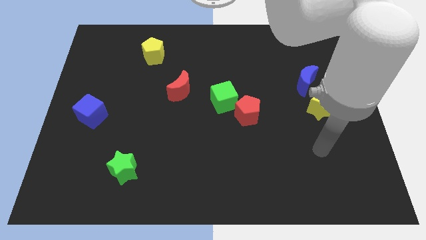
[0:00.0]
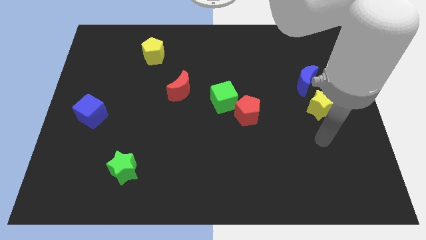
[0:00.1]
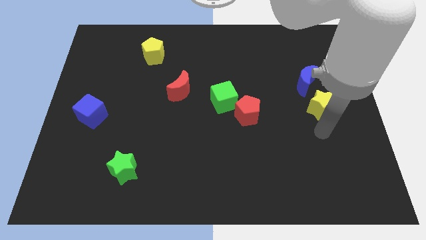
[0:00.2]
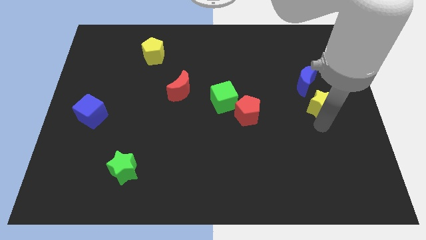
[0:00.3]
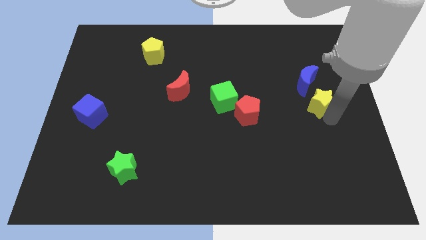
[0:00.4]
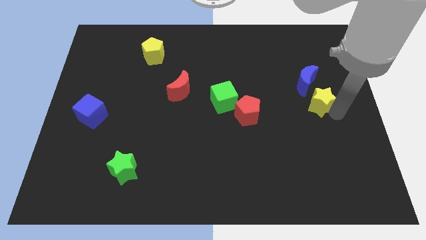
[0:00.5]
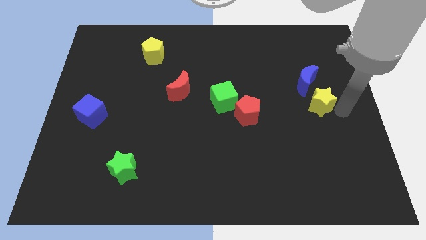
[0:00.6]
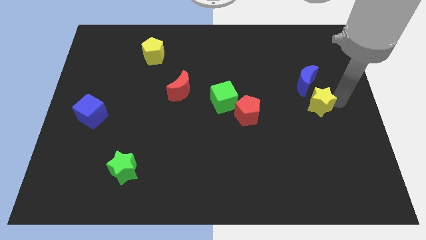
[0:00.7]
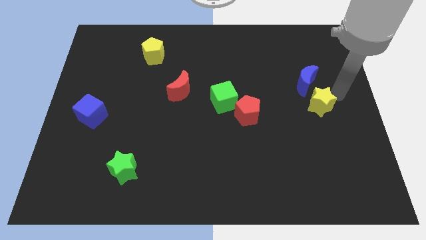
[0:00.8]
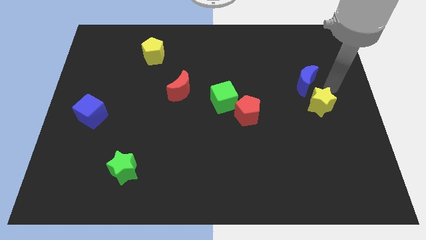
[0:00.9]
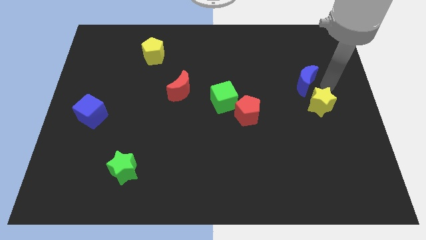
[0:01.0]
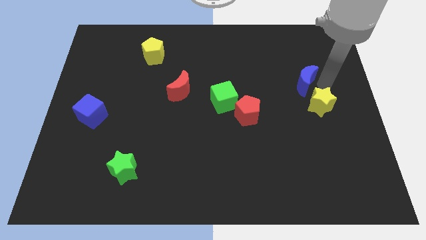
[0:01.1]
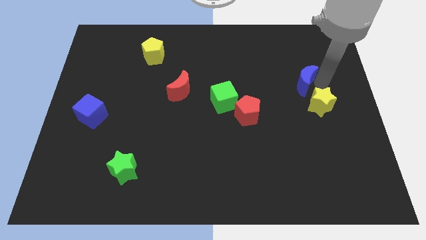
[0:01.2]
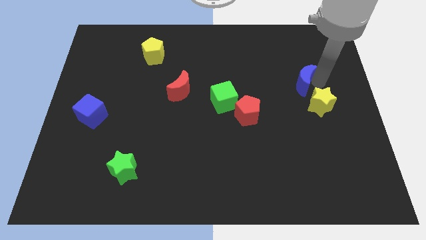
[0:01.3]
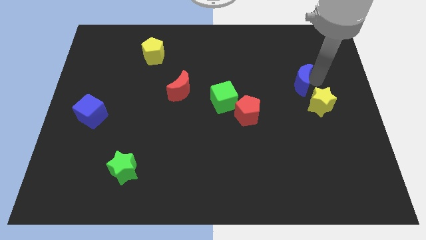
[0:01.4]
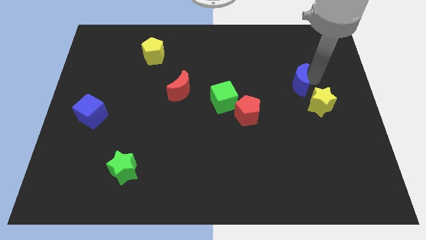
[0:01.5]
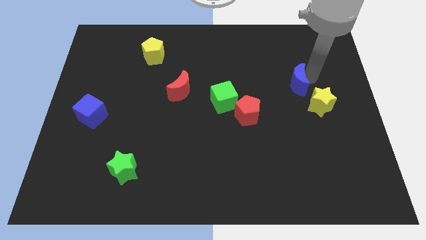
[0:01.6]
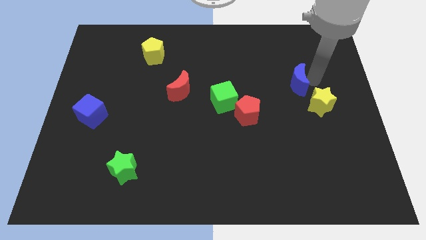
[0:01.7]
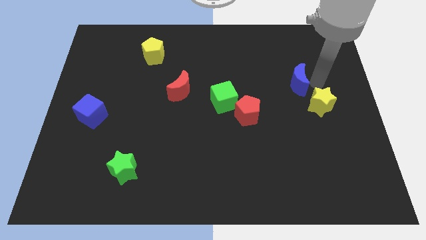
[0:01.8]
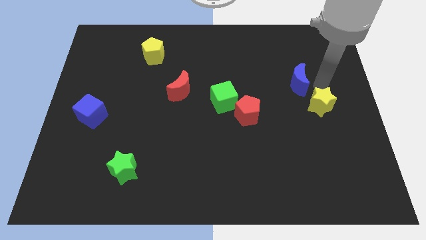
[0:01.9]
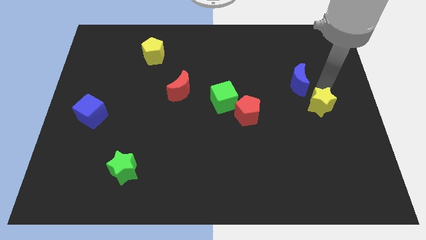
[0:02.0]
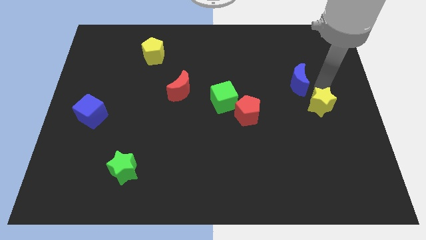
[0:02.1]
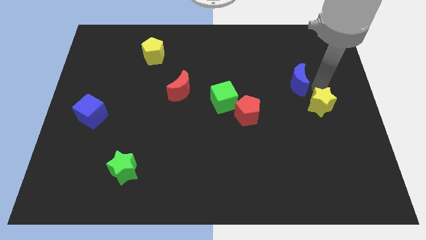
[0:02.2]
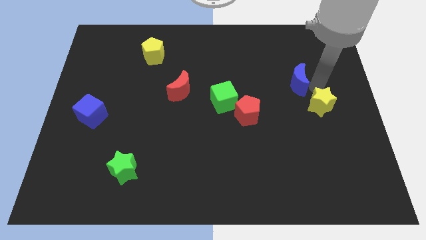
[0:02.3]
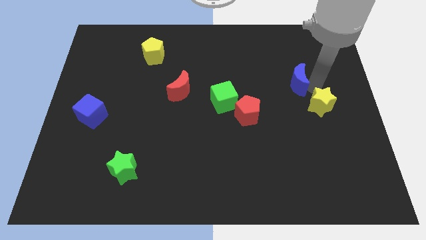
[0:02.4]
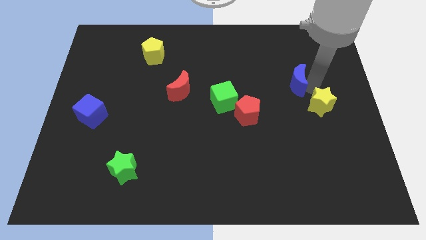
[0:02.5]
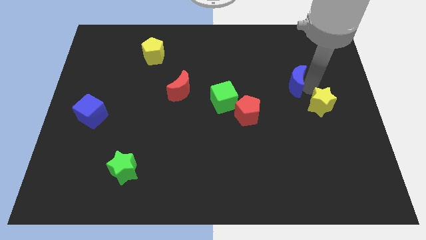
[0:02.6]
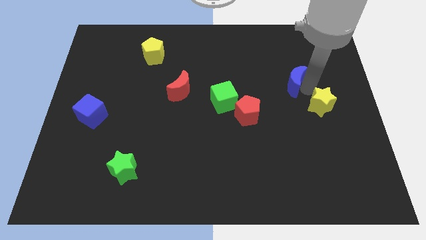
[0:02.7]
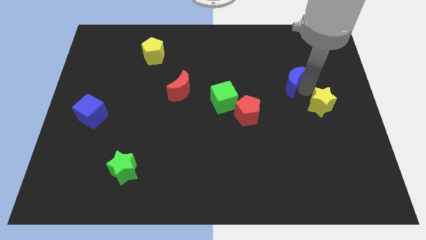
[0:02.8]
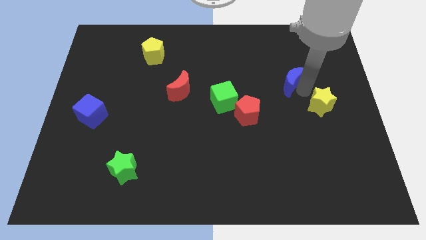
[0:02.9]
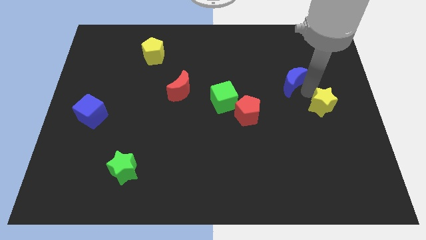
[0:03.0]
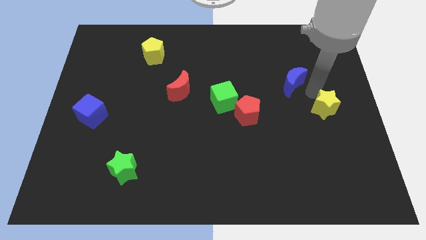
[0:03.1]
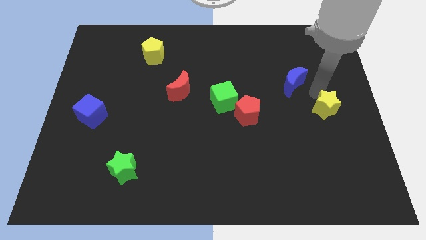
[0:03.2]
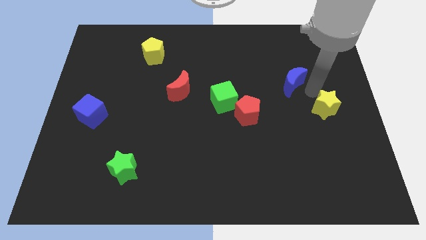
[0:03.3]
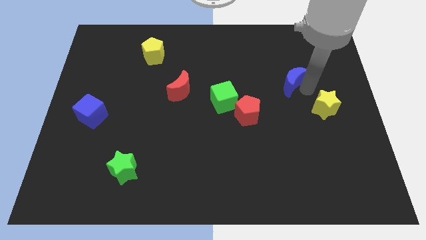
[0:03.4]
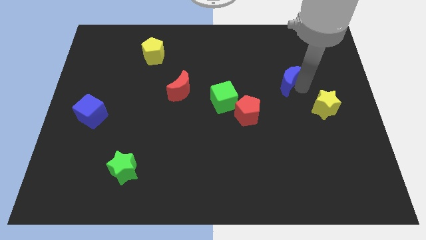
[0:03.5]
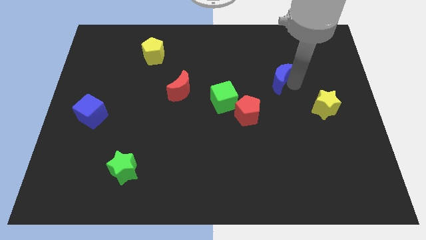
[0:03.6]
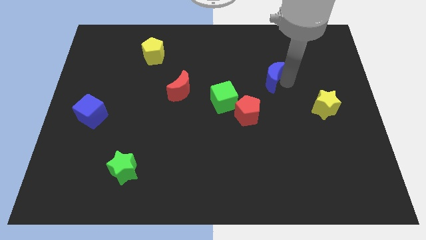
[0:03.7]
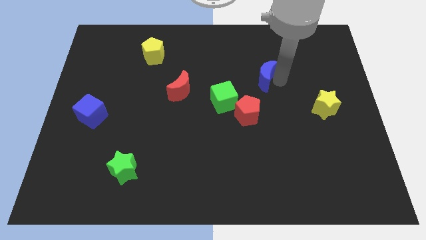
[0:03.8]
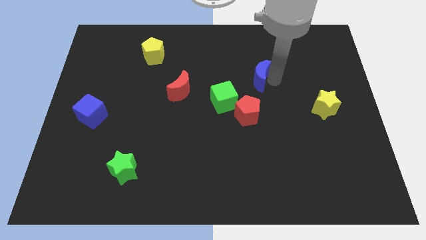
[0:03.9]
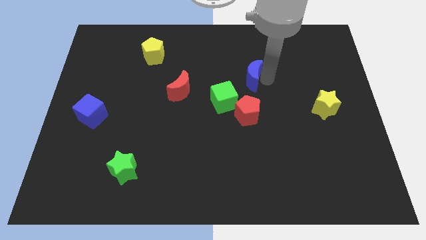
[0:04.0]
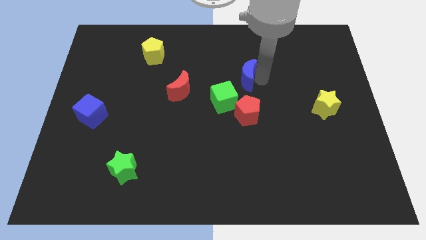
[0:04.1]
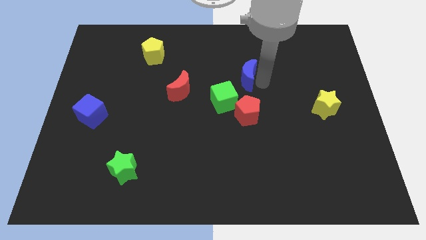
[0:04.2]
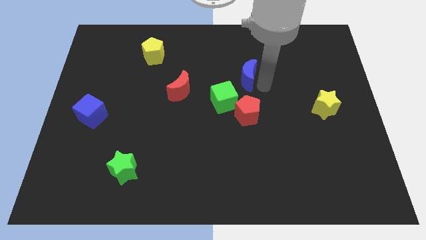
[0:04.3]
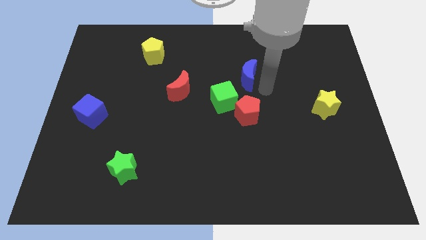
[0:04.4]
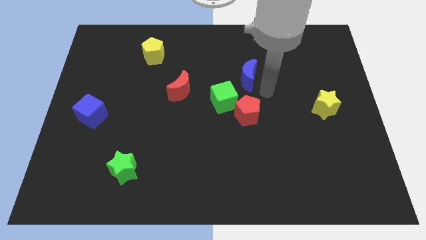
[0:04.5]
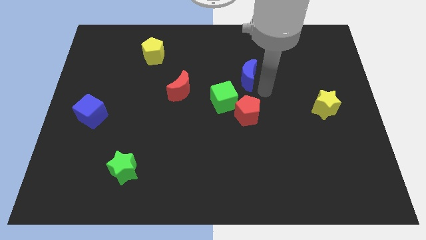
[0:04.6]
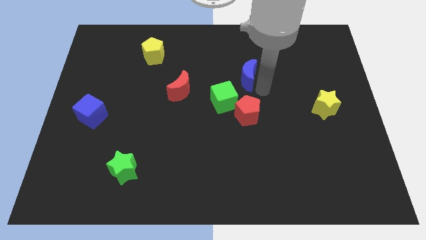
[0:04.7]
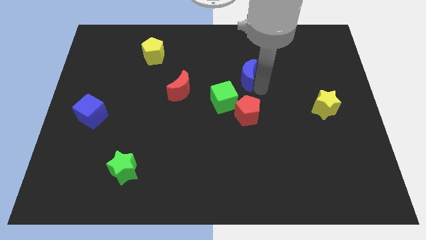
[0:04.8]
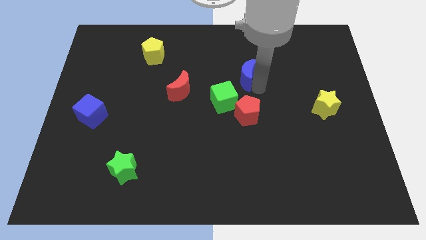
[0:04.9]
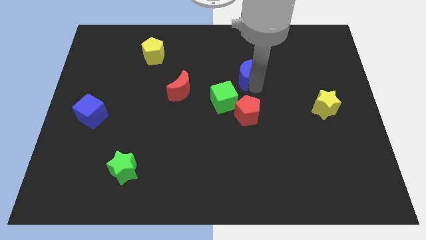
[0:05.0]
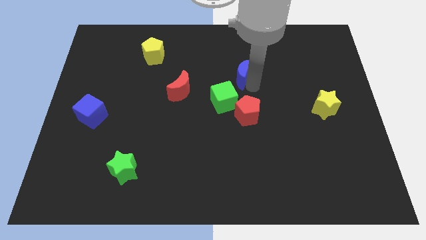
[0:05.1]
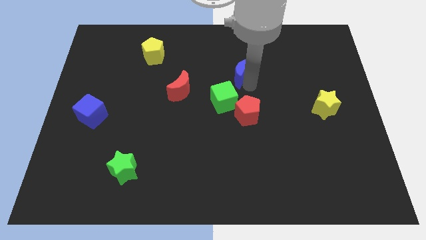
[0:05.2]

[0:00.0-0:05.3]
push the blue moon above the green cube
